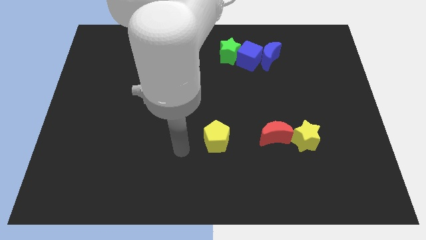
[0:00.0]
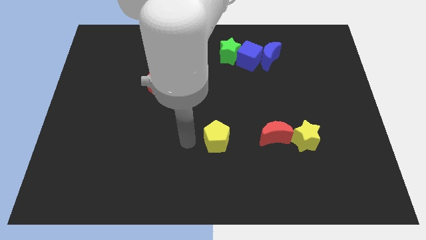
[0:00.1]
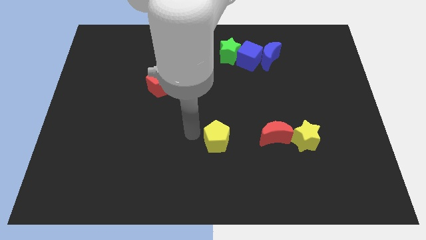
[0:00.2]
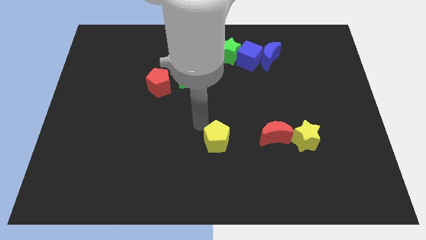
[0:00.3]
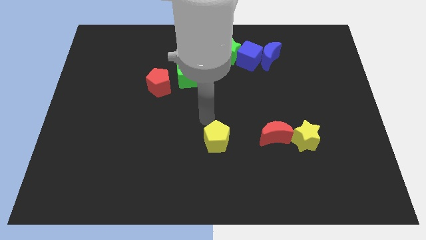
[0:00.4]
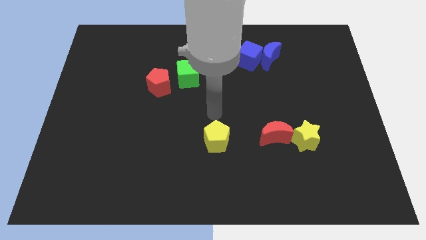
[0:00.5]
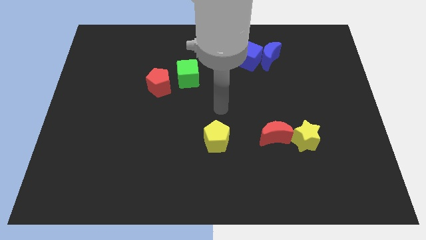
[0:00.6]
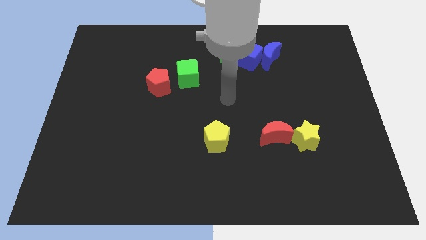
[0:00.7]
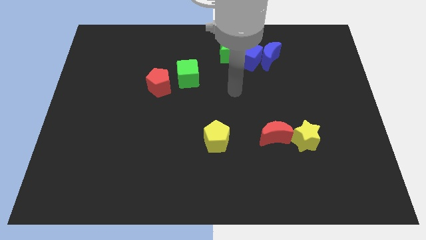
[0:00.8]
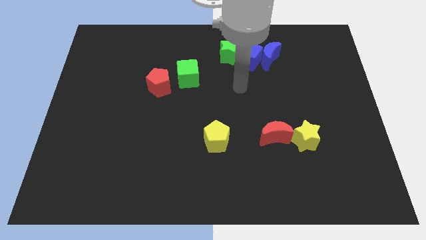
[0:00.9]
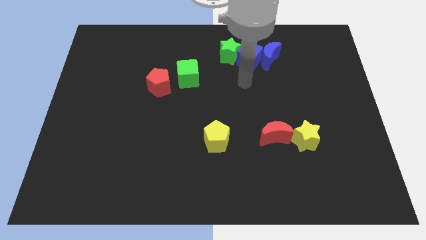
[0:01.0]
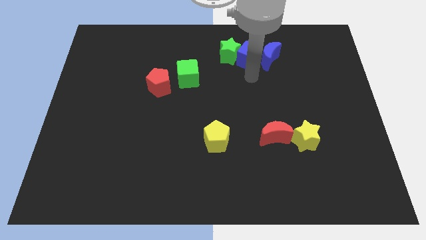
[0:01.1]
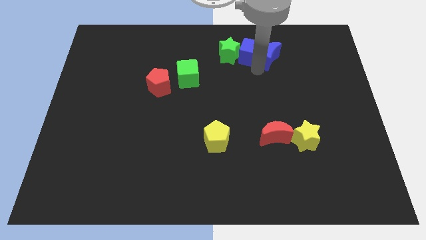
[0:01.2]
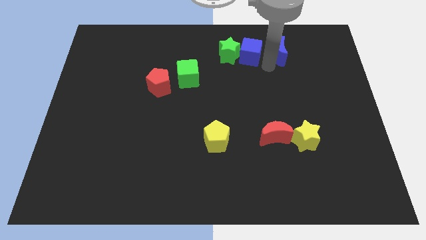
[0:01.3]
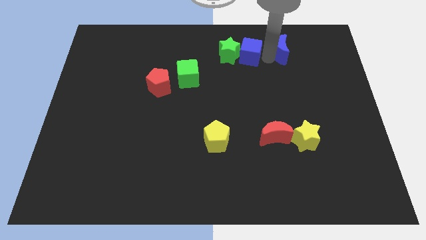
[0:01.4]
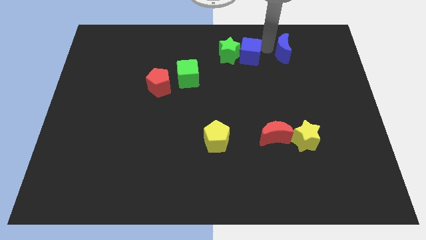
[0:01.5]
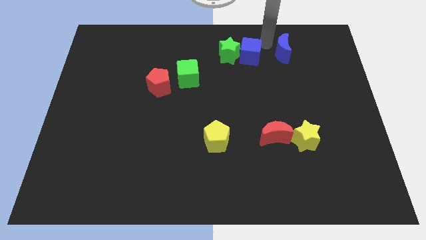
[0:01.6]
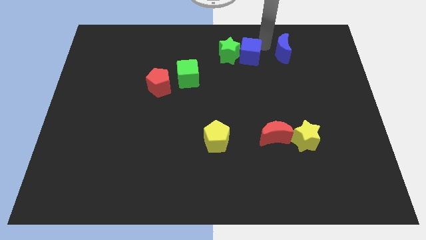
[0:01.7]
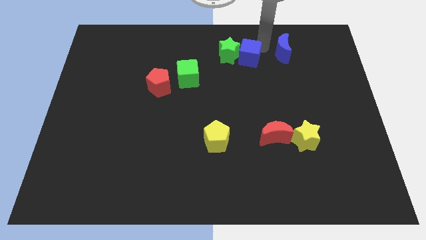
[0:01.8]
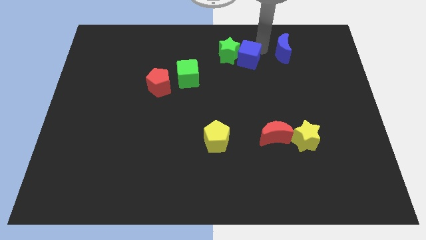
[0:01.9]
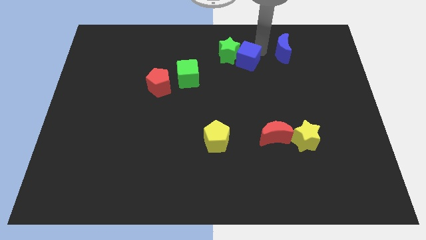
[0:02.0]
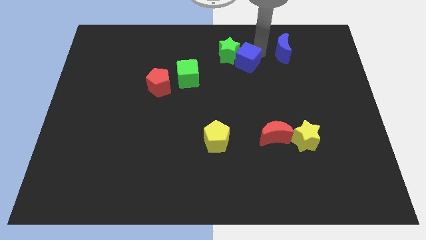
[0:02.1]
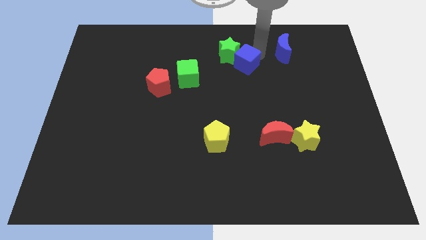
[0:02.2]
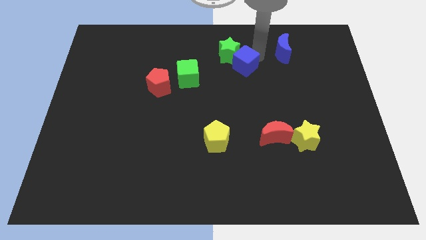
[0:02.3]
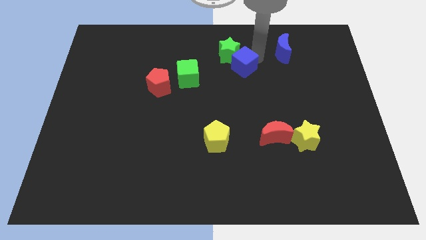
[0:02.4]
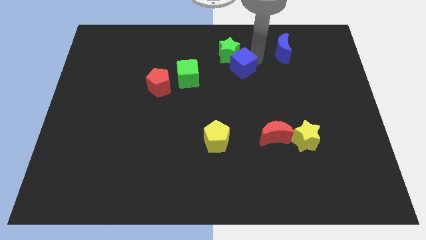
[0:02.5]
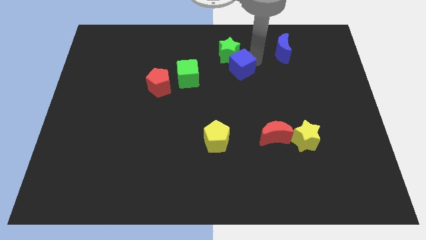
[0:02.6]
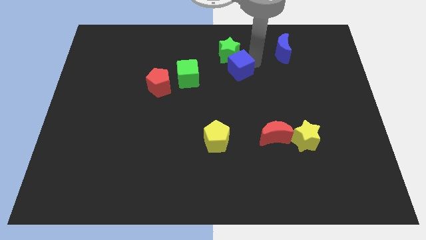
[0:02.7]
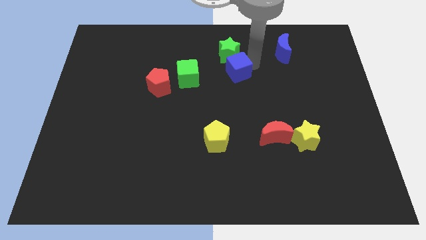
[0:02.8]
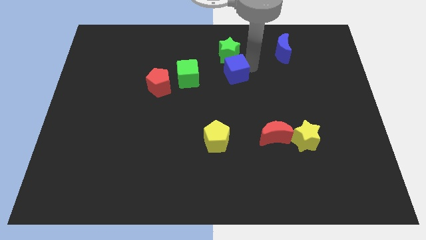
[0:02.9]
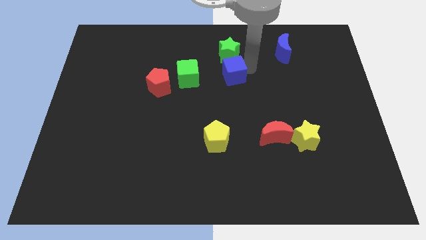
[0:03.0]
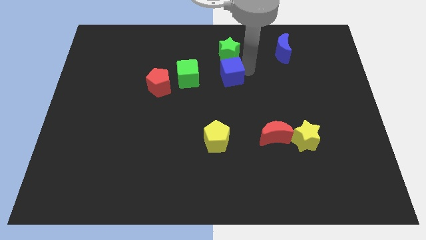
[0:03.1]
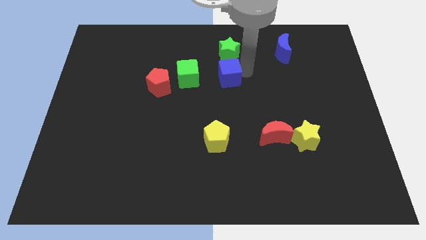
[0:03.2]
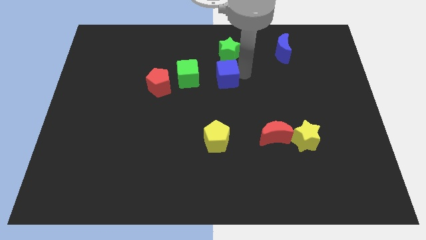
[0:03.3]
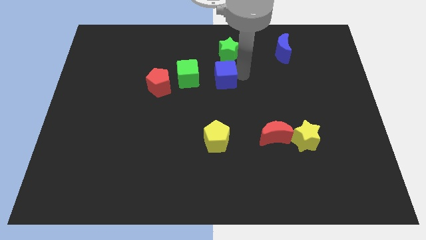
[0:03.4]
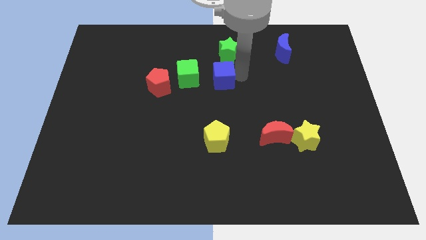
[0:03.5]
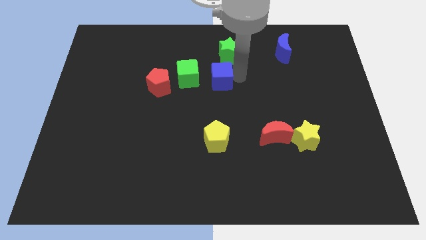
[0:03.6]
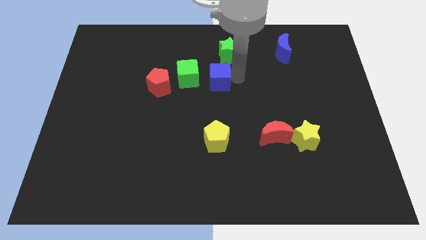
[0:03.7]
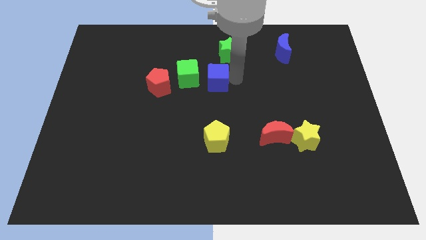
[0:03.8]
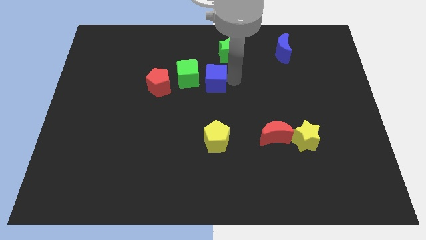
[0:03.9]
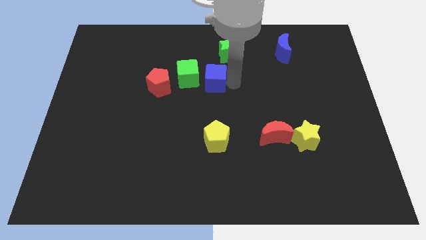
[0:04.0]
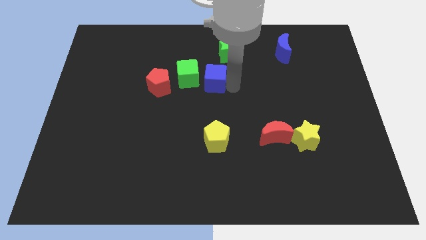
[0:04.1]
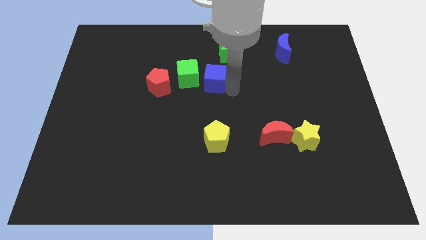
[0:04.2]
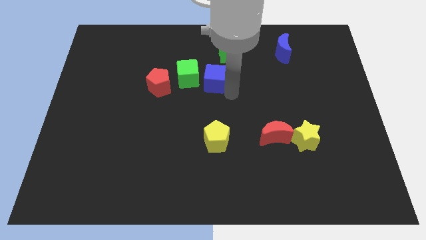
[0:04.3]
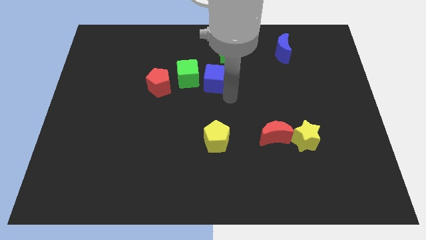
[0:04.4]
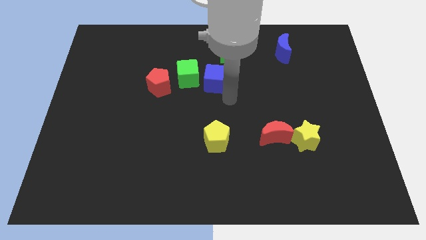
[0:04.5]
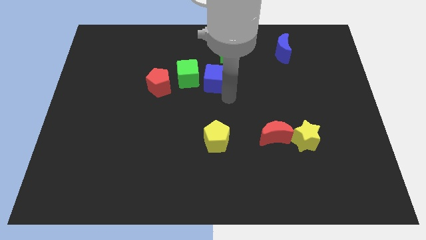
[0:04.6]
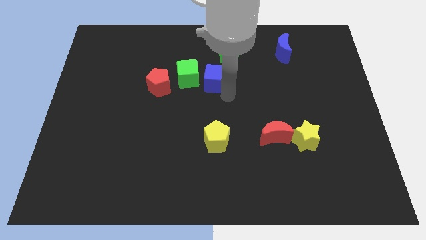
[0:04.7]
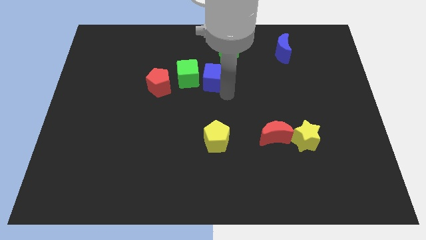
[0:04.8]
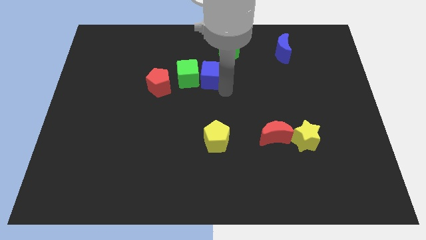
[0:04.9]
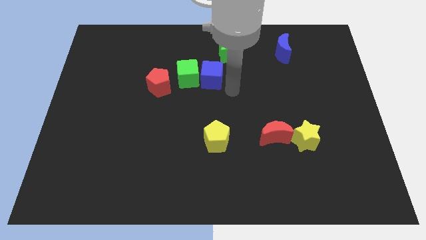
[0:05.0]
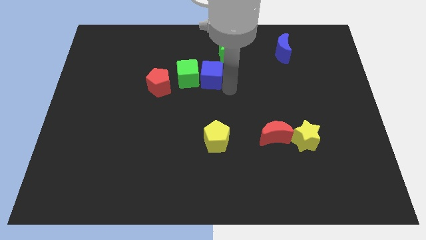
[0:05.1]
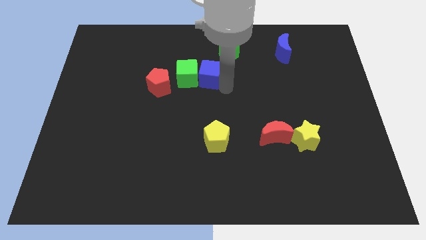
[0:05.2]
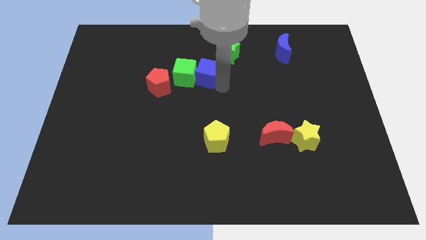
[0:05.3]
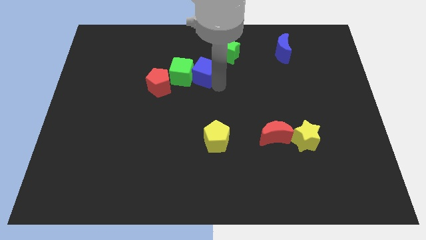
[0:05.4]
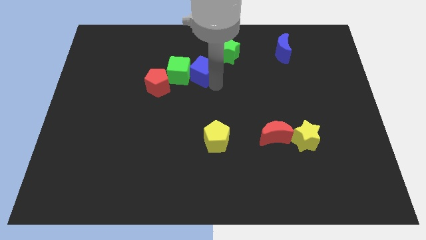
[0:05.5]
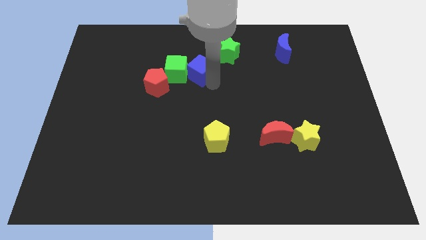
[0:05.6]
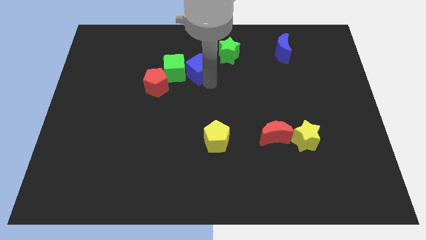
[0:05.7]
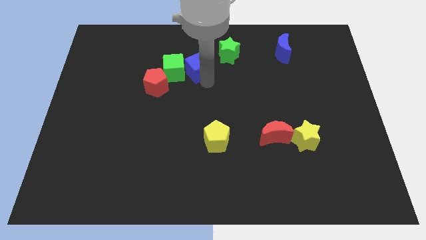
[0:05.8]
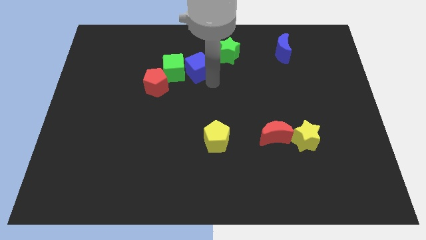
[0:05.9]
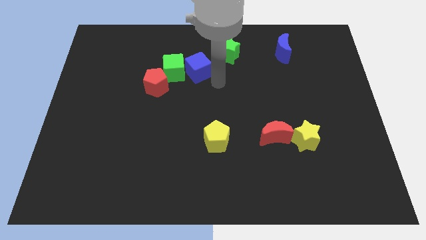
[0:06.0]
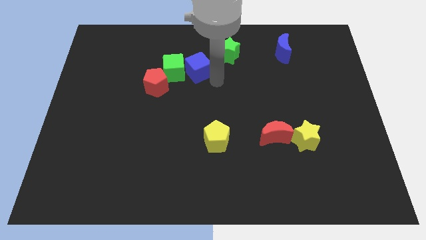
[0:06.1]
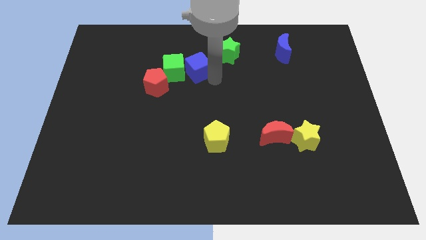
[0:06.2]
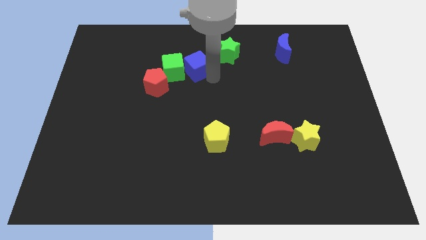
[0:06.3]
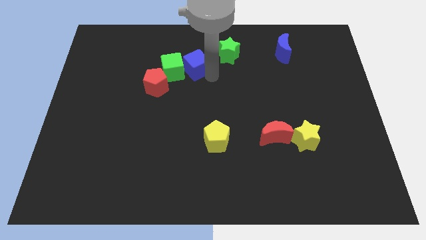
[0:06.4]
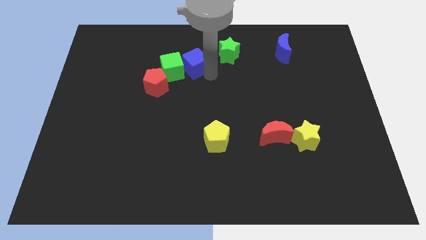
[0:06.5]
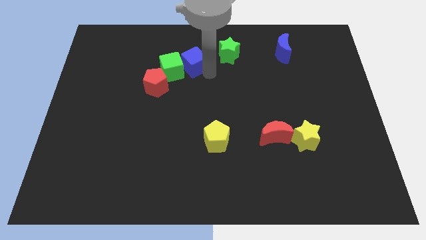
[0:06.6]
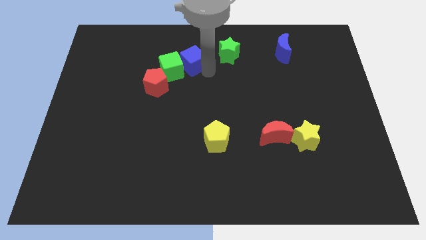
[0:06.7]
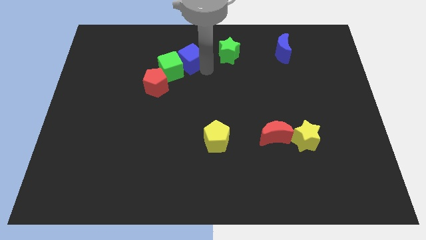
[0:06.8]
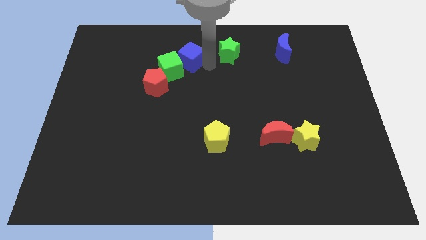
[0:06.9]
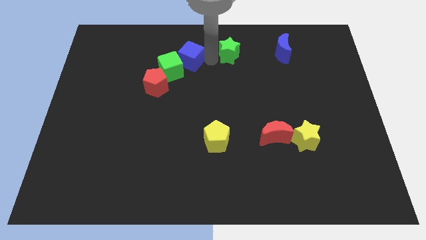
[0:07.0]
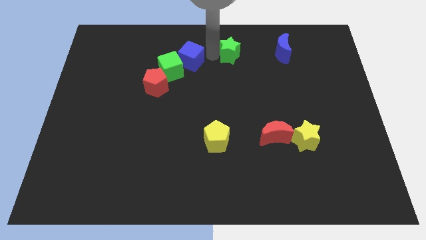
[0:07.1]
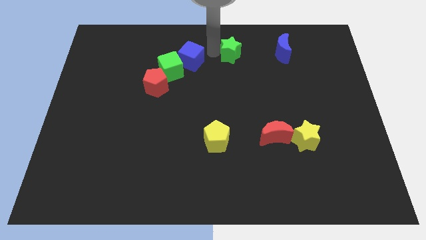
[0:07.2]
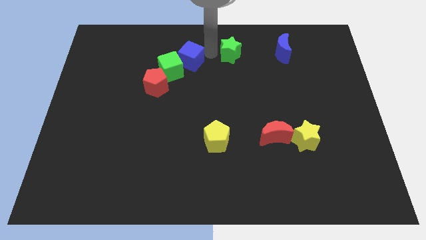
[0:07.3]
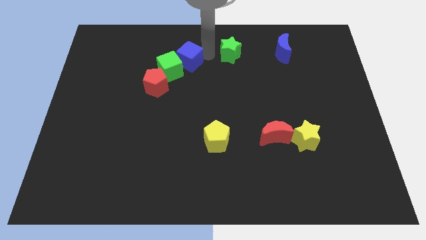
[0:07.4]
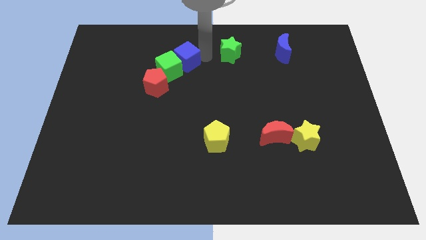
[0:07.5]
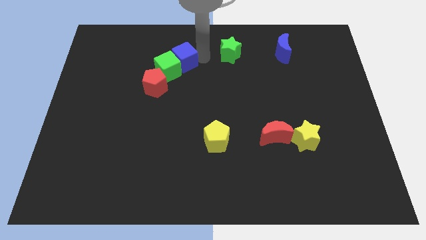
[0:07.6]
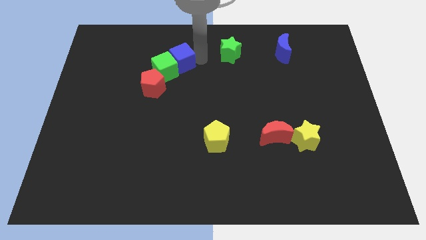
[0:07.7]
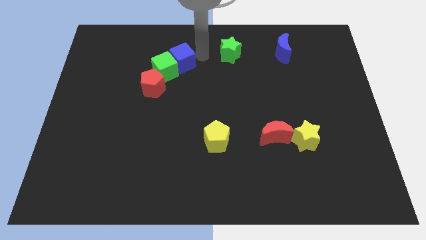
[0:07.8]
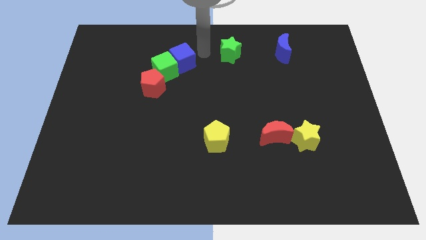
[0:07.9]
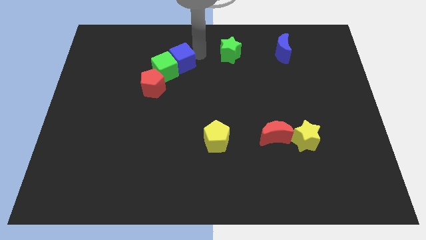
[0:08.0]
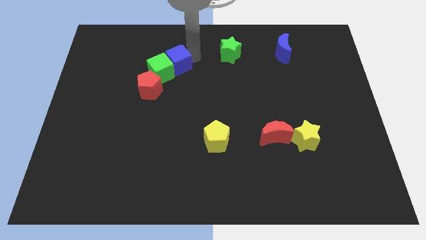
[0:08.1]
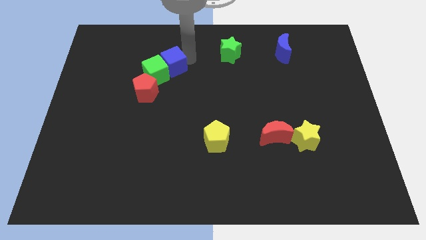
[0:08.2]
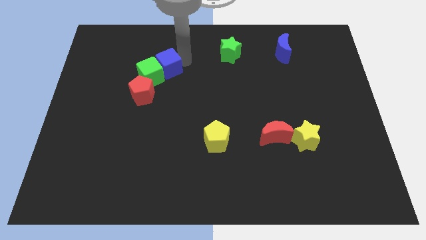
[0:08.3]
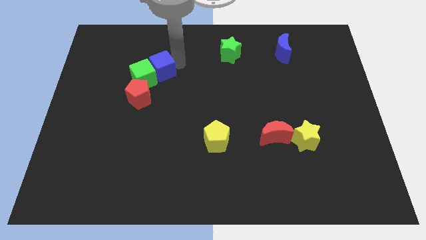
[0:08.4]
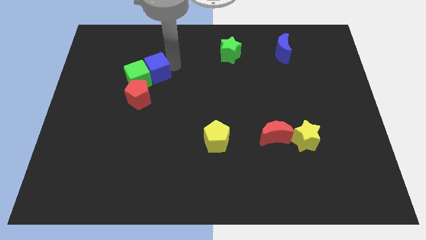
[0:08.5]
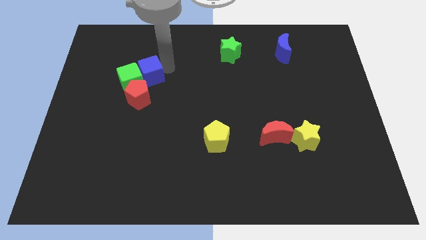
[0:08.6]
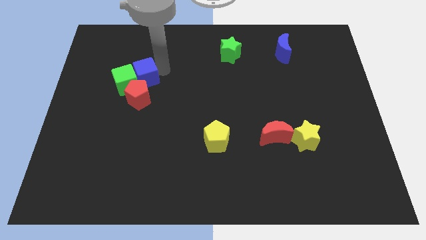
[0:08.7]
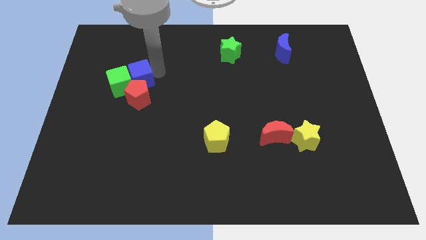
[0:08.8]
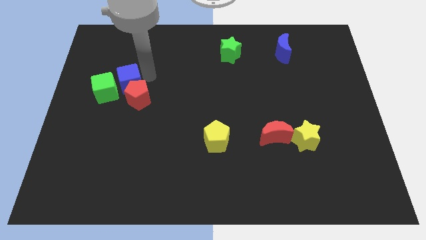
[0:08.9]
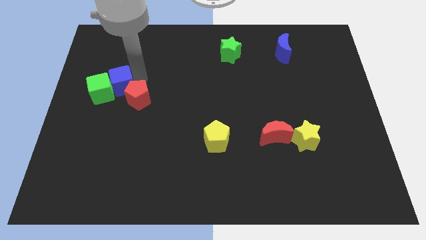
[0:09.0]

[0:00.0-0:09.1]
push the blue cube just left of the red pentagon
